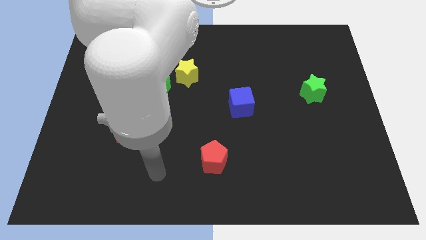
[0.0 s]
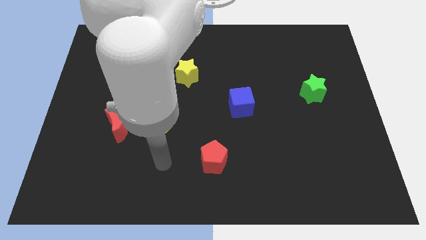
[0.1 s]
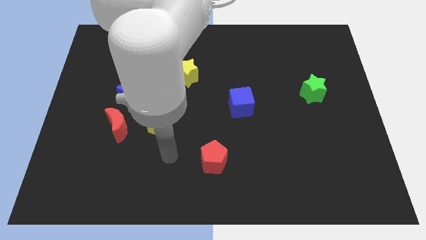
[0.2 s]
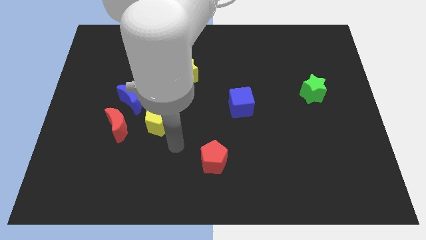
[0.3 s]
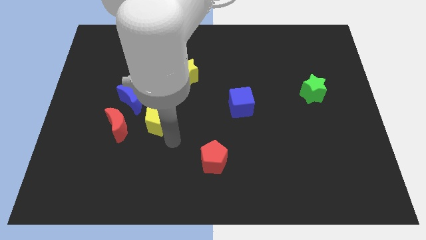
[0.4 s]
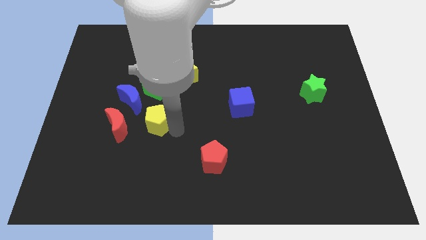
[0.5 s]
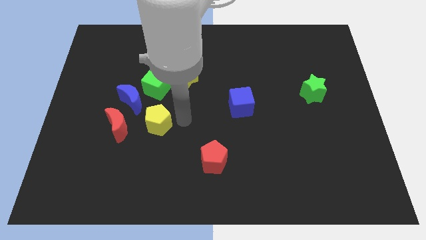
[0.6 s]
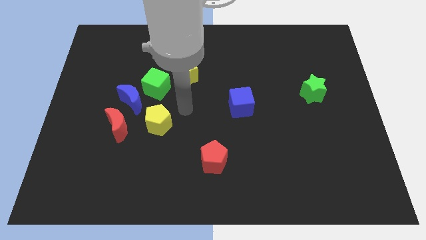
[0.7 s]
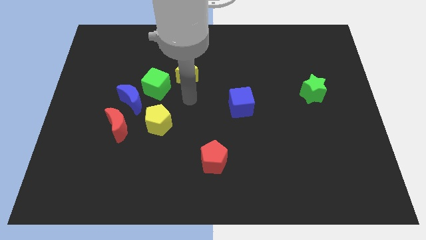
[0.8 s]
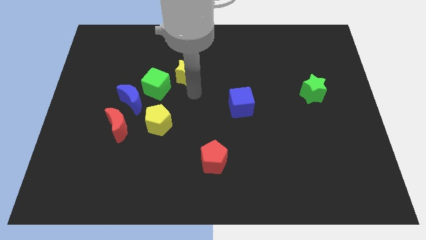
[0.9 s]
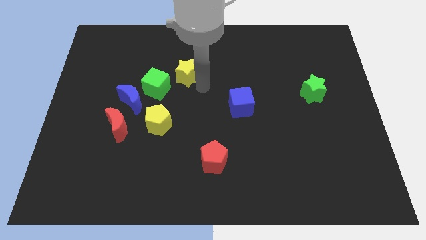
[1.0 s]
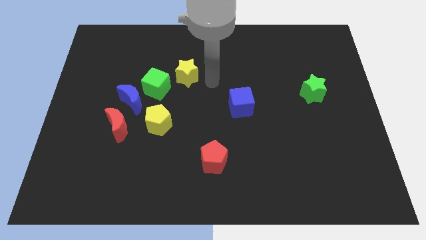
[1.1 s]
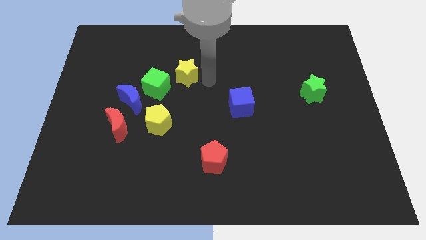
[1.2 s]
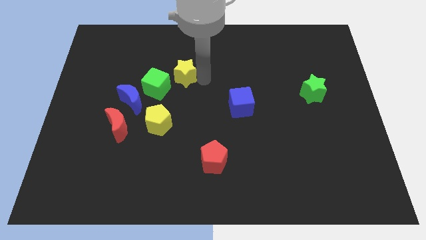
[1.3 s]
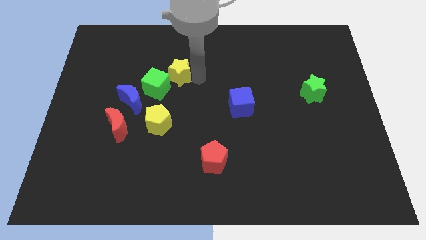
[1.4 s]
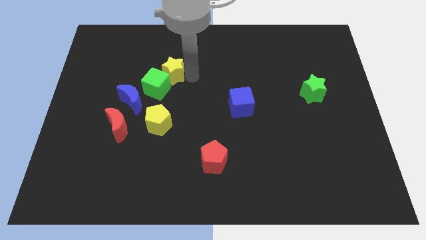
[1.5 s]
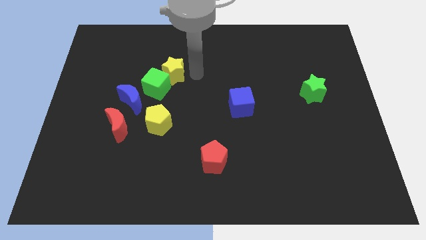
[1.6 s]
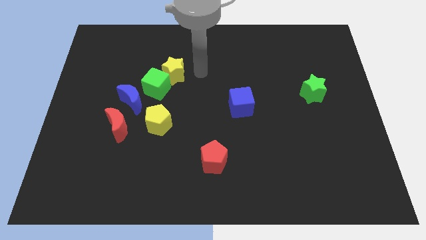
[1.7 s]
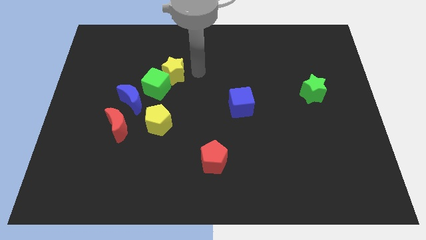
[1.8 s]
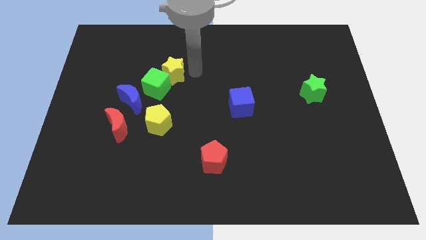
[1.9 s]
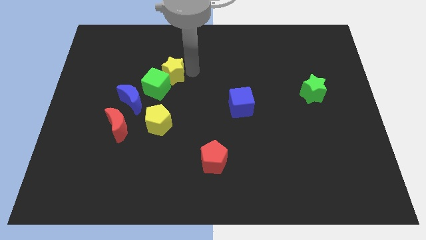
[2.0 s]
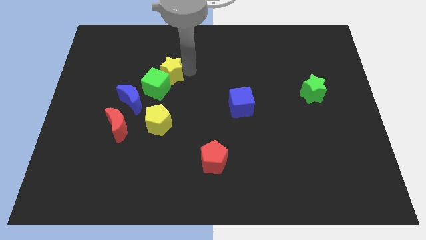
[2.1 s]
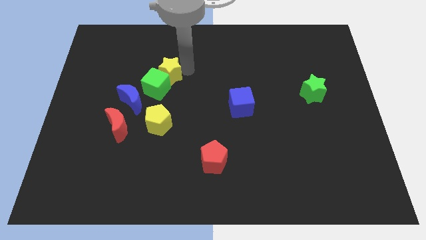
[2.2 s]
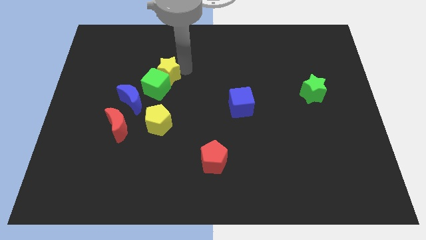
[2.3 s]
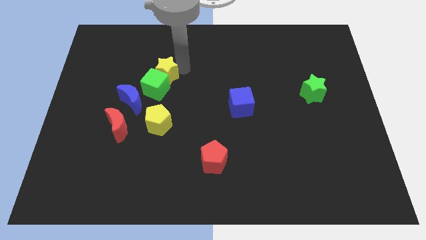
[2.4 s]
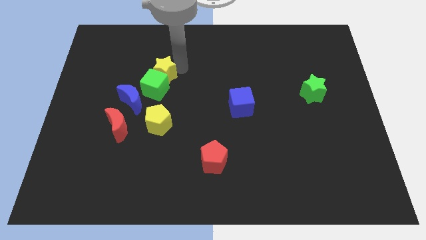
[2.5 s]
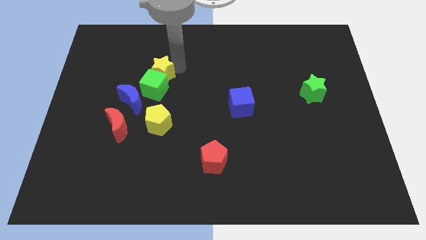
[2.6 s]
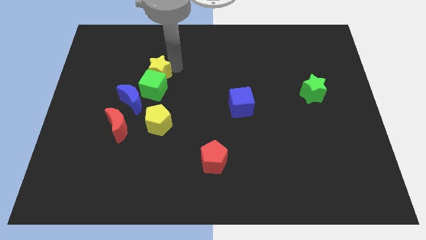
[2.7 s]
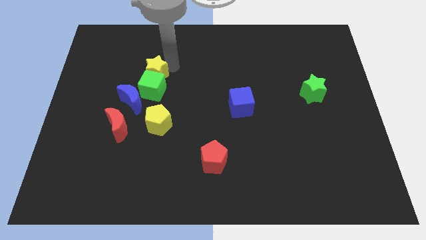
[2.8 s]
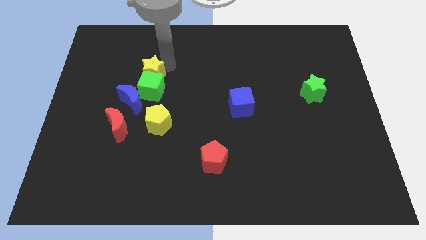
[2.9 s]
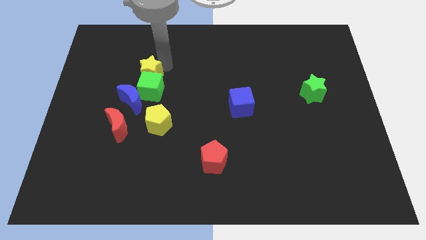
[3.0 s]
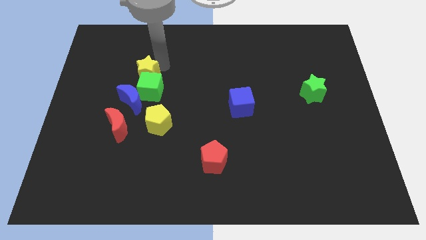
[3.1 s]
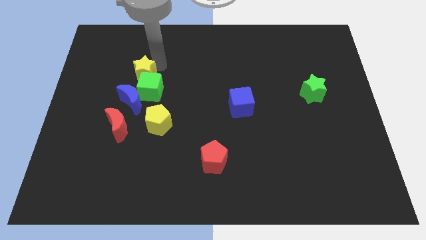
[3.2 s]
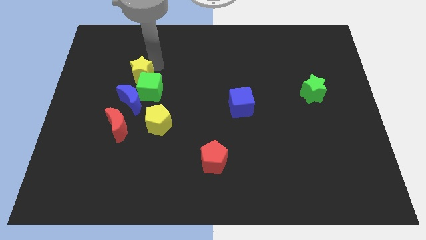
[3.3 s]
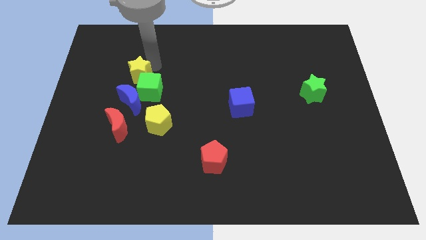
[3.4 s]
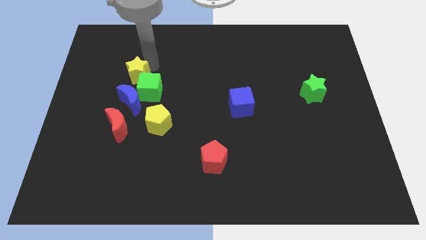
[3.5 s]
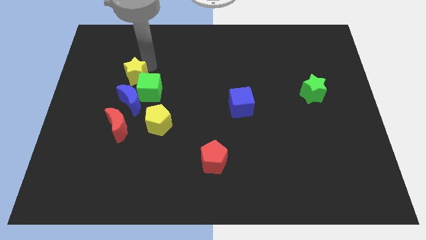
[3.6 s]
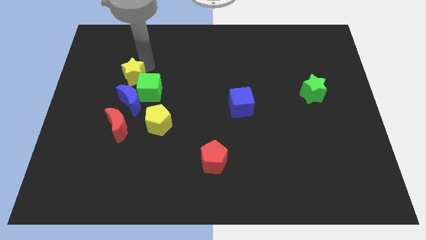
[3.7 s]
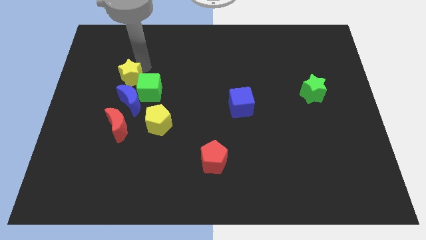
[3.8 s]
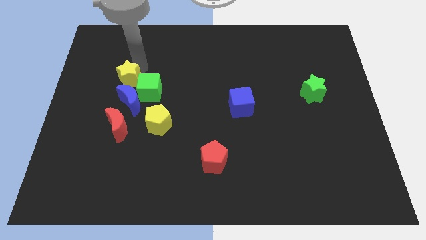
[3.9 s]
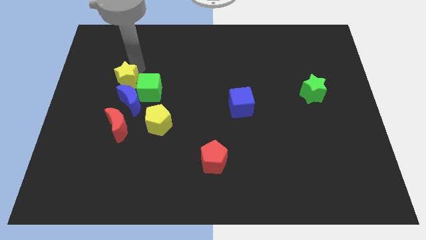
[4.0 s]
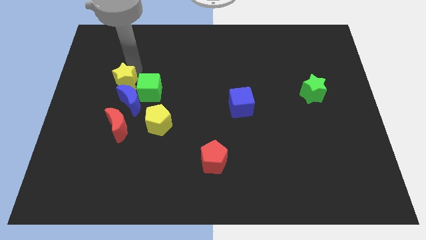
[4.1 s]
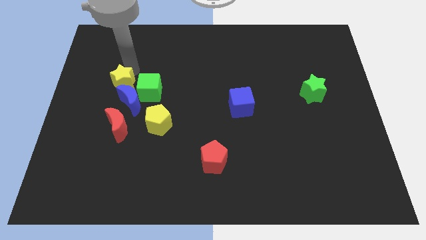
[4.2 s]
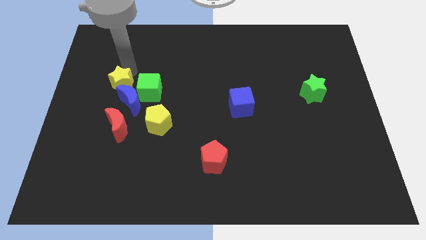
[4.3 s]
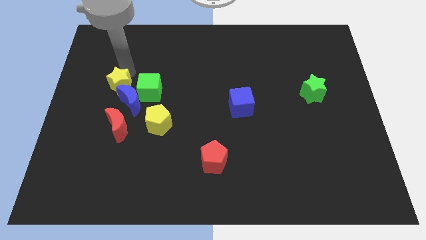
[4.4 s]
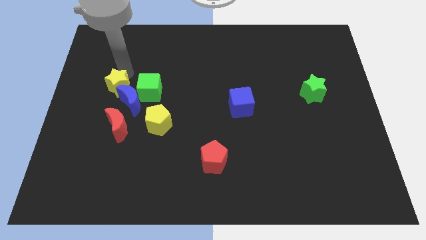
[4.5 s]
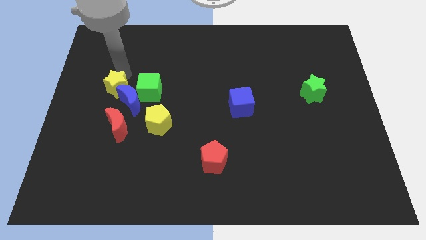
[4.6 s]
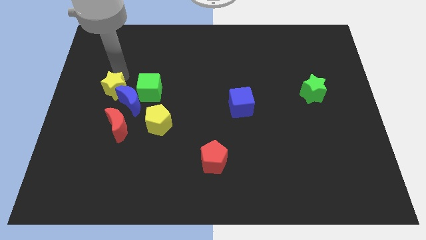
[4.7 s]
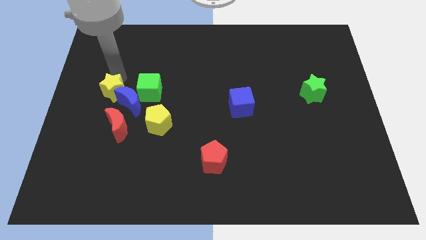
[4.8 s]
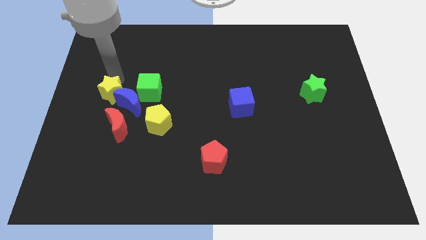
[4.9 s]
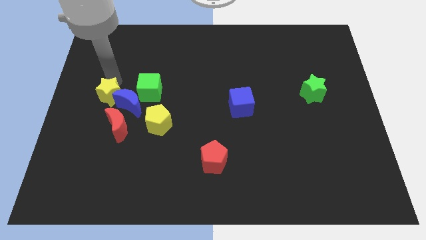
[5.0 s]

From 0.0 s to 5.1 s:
move the yellow star diagonally up and to the left of the red moon

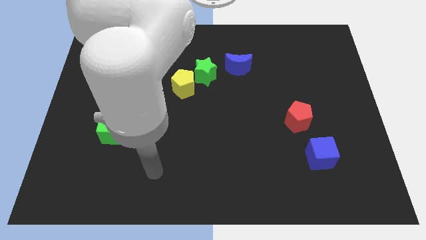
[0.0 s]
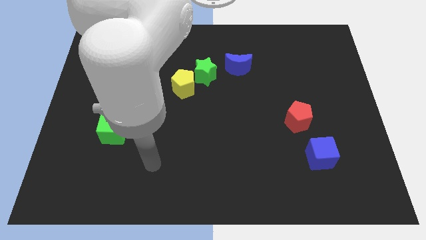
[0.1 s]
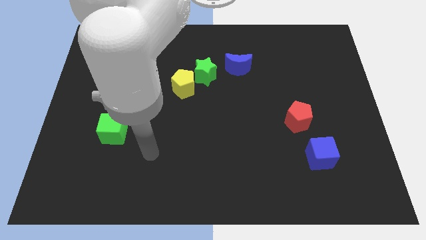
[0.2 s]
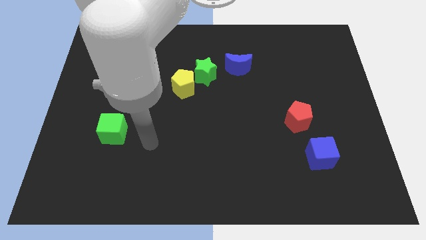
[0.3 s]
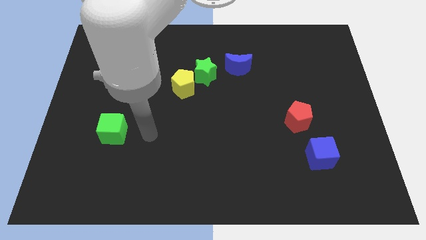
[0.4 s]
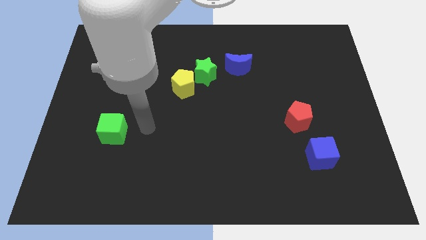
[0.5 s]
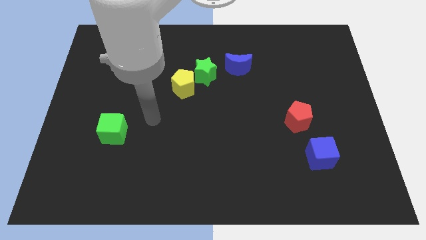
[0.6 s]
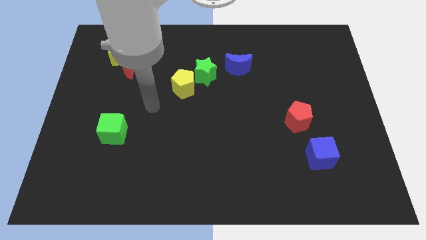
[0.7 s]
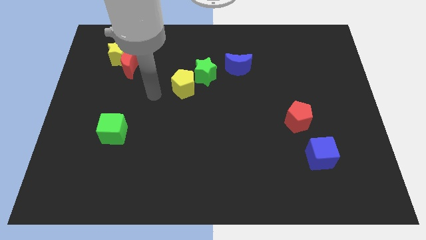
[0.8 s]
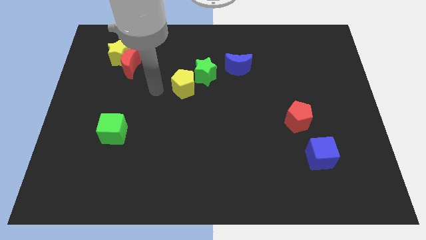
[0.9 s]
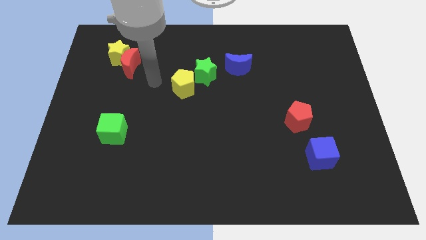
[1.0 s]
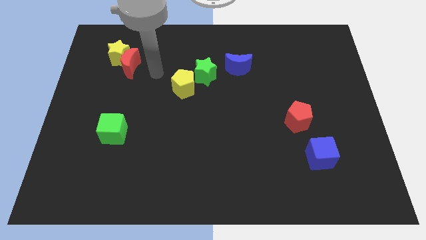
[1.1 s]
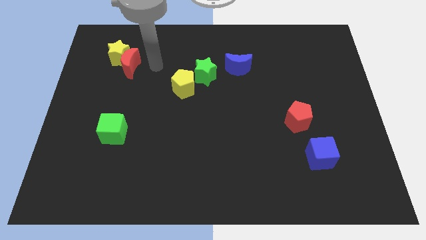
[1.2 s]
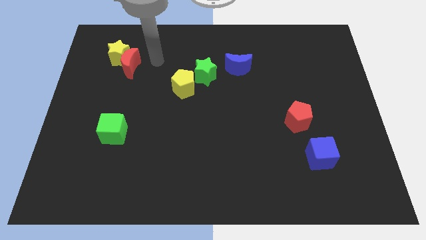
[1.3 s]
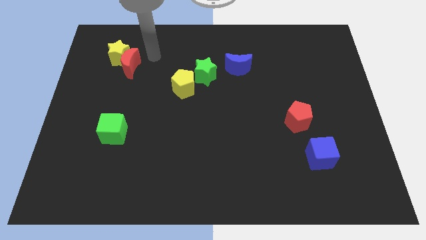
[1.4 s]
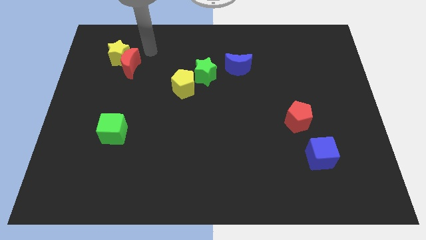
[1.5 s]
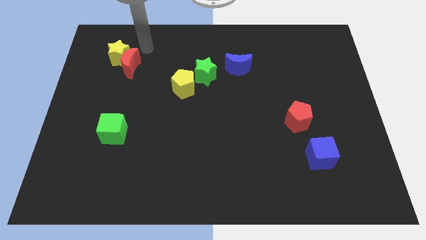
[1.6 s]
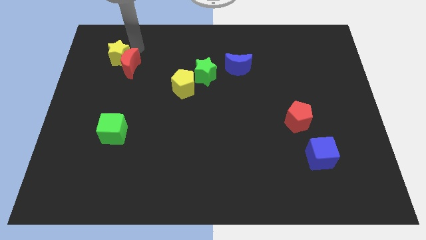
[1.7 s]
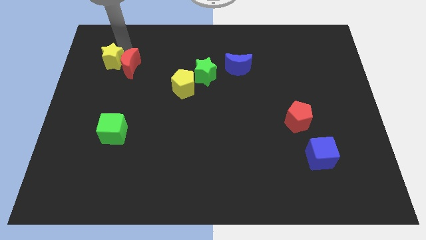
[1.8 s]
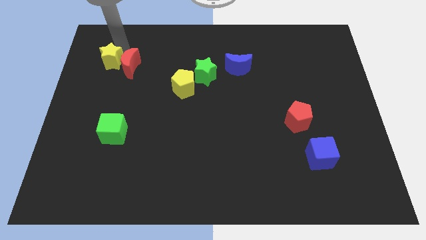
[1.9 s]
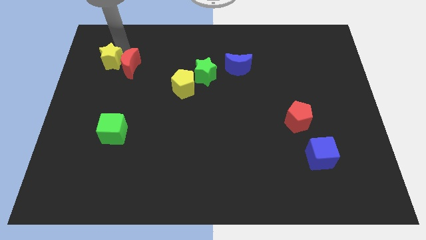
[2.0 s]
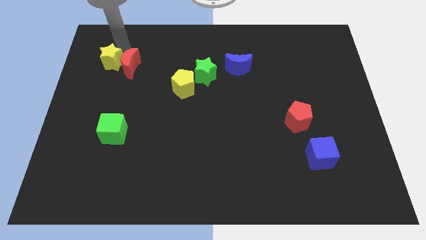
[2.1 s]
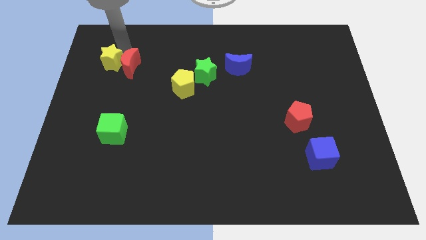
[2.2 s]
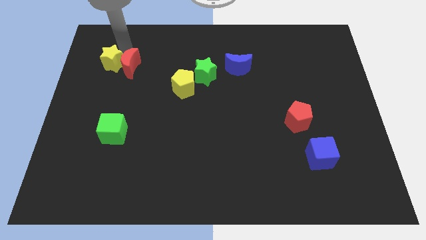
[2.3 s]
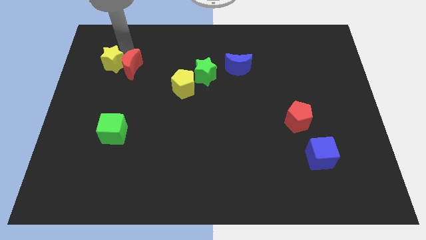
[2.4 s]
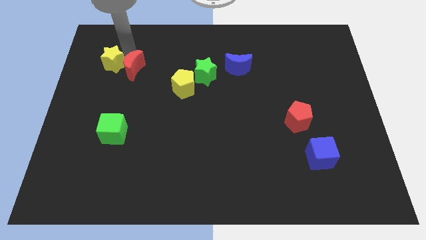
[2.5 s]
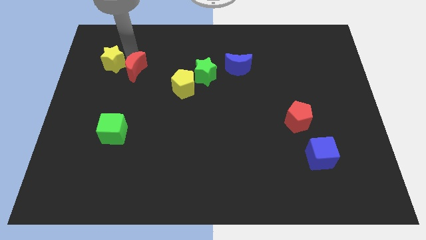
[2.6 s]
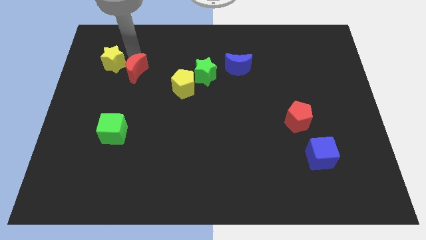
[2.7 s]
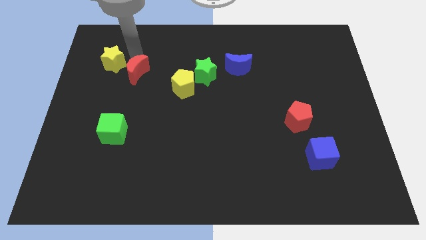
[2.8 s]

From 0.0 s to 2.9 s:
push the red moon left of the yellow pentagon

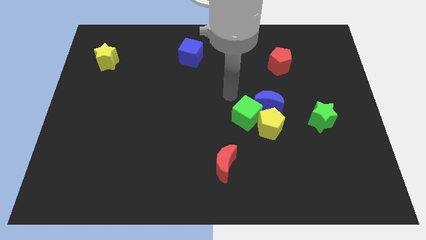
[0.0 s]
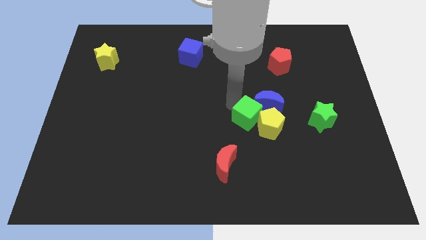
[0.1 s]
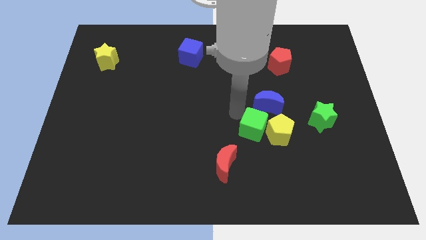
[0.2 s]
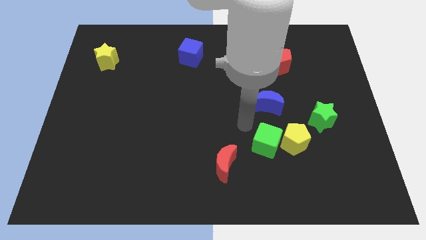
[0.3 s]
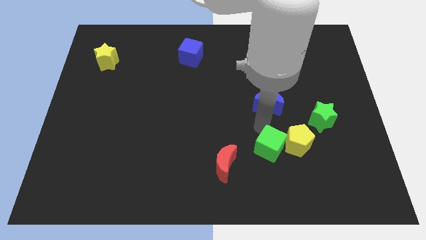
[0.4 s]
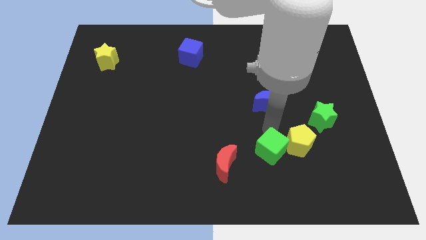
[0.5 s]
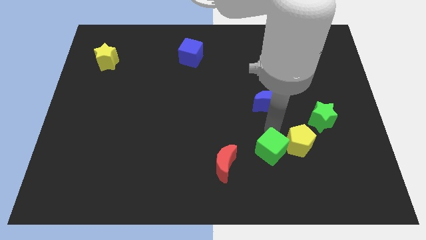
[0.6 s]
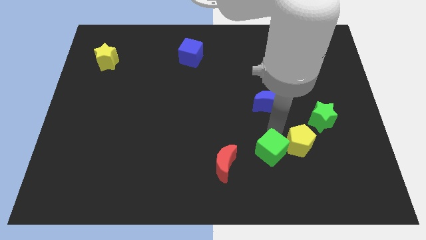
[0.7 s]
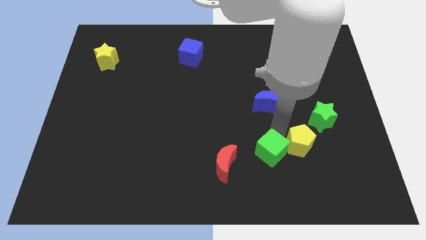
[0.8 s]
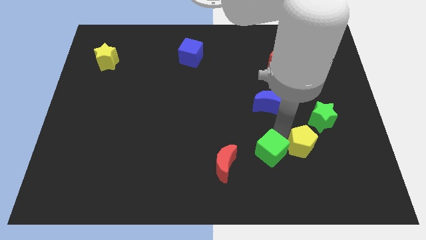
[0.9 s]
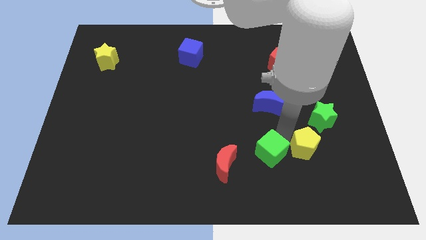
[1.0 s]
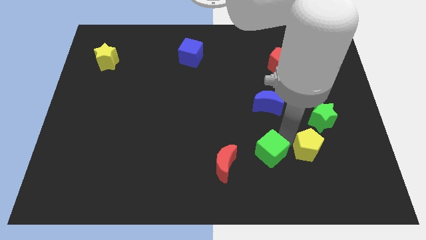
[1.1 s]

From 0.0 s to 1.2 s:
push the yellow pentagon below the green star
